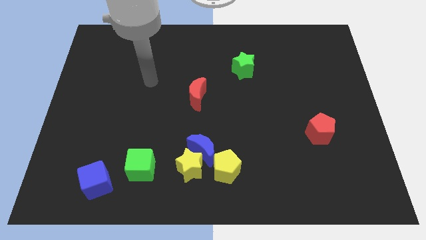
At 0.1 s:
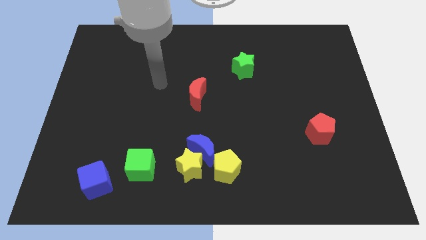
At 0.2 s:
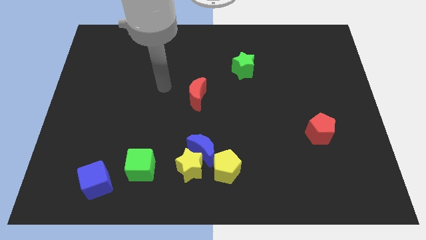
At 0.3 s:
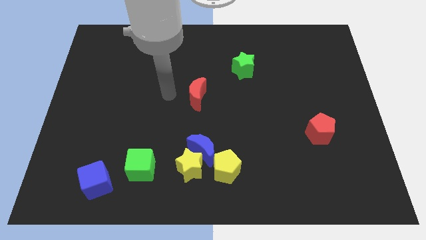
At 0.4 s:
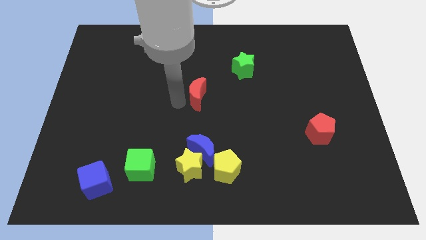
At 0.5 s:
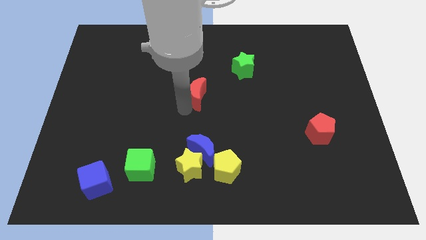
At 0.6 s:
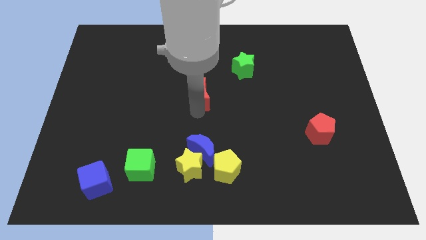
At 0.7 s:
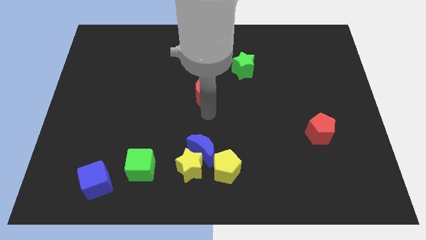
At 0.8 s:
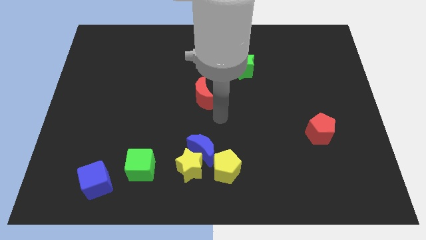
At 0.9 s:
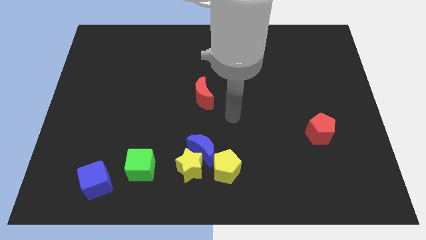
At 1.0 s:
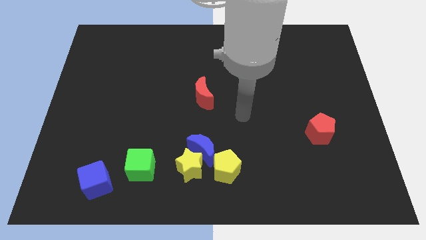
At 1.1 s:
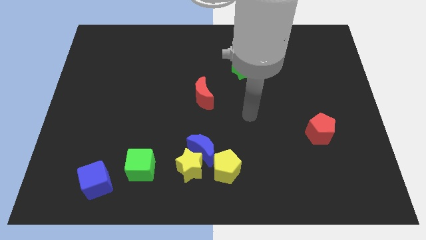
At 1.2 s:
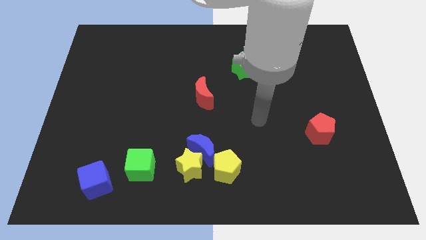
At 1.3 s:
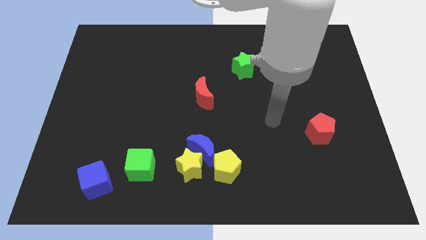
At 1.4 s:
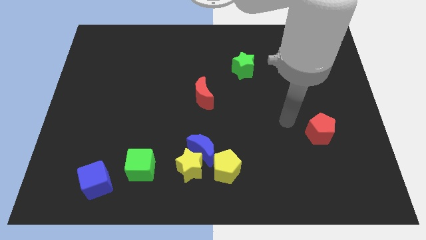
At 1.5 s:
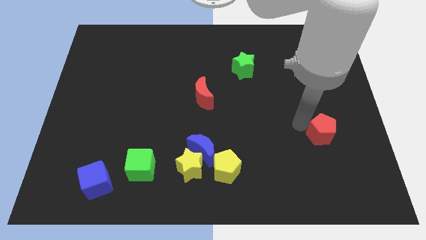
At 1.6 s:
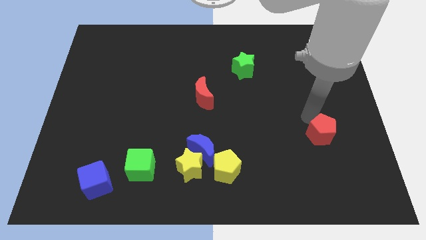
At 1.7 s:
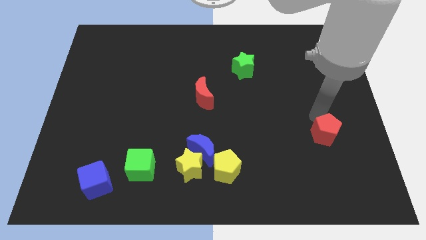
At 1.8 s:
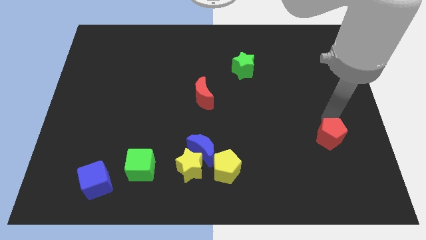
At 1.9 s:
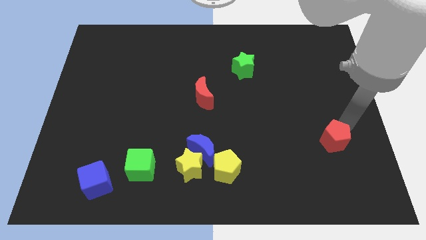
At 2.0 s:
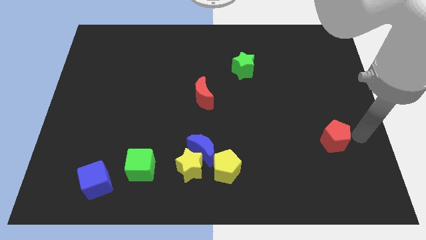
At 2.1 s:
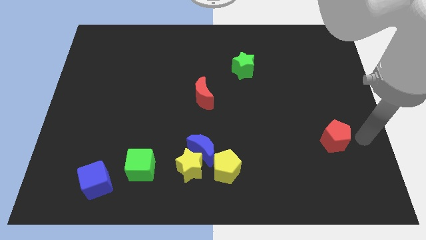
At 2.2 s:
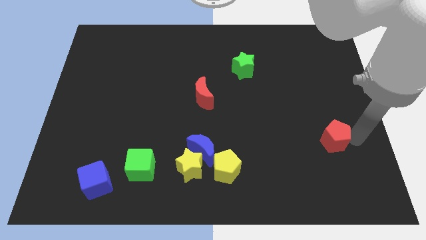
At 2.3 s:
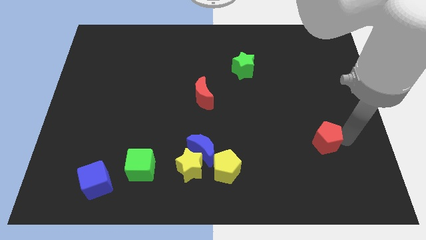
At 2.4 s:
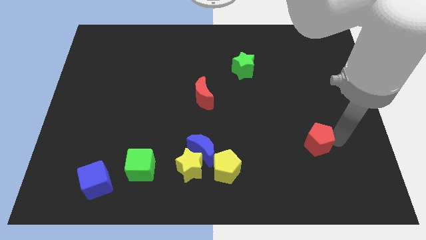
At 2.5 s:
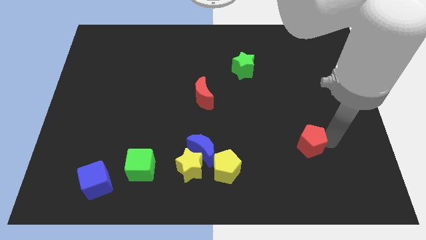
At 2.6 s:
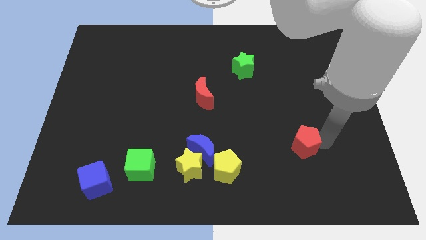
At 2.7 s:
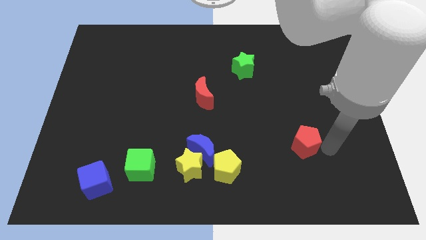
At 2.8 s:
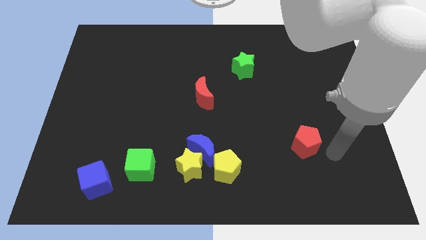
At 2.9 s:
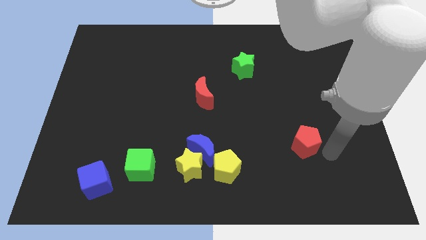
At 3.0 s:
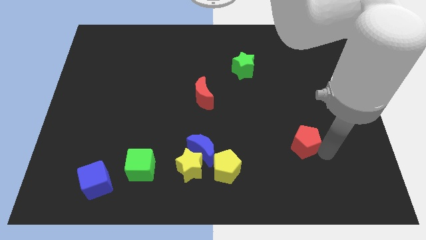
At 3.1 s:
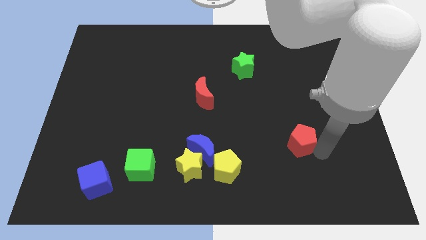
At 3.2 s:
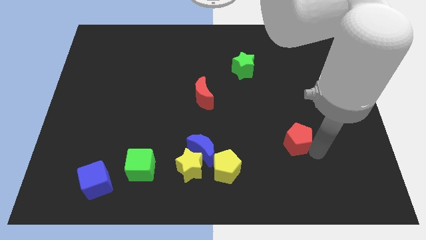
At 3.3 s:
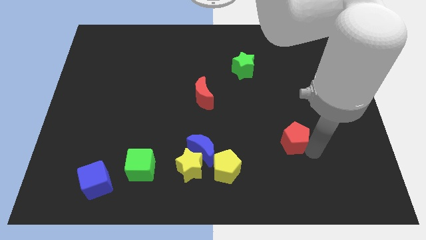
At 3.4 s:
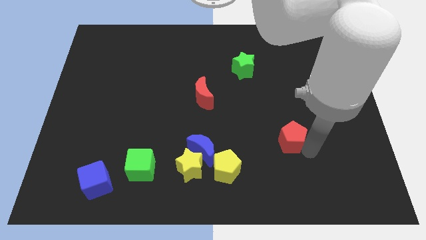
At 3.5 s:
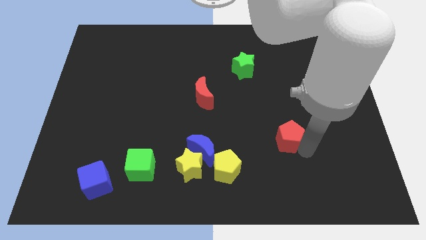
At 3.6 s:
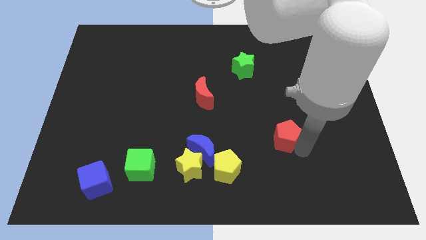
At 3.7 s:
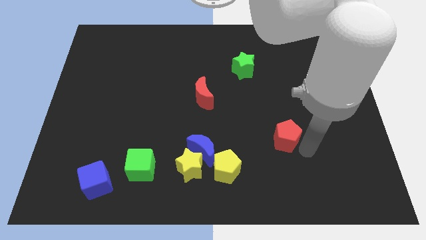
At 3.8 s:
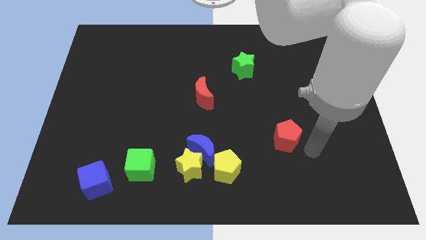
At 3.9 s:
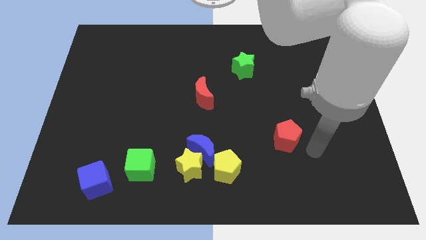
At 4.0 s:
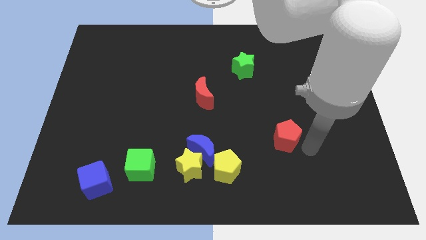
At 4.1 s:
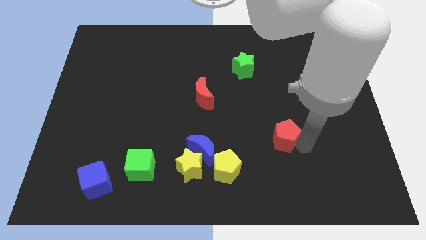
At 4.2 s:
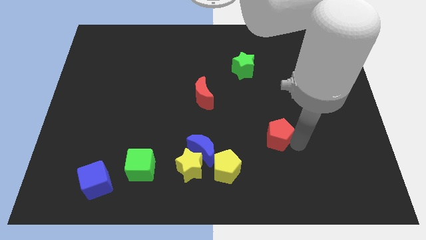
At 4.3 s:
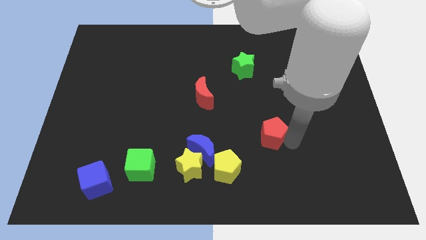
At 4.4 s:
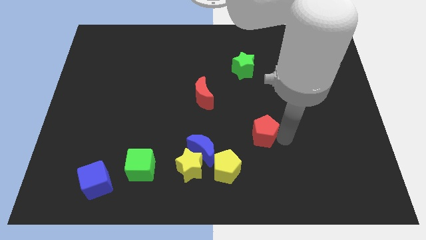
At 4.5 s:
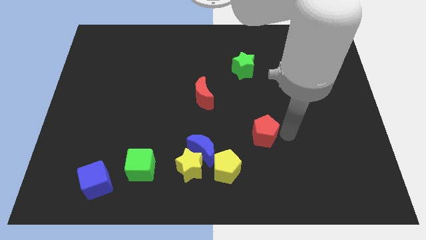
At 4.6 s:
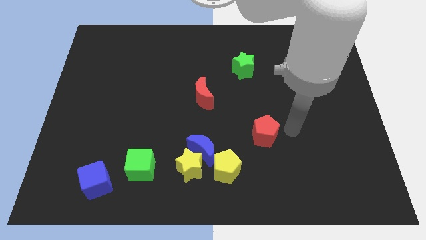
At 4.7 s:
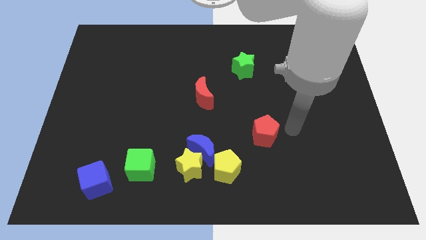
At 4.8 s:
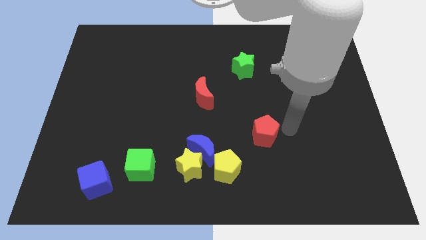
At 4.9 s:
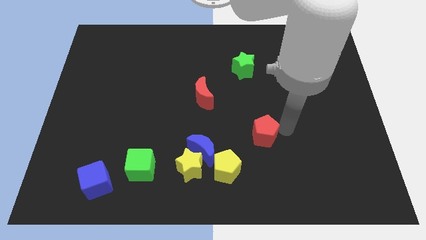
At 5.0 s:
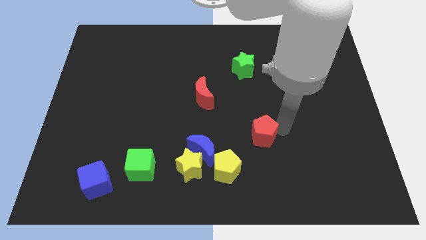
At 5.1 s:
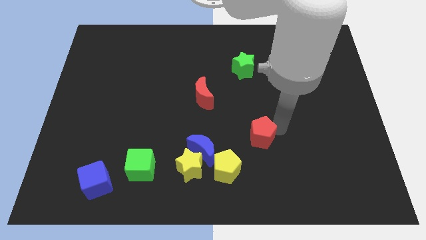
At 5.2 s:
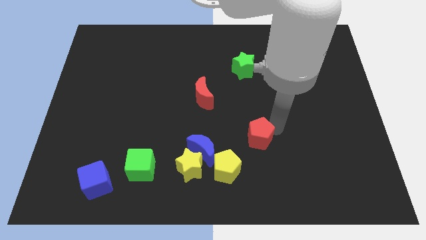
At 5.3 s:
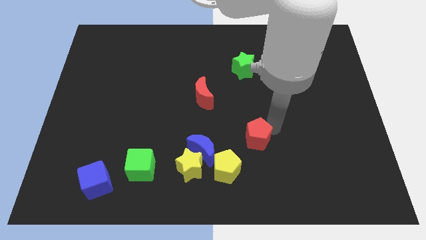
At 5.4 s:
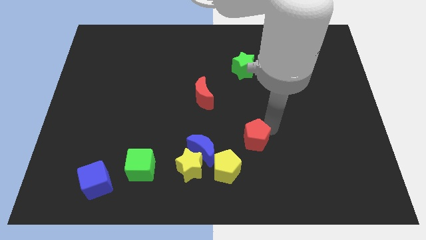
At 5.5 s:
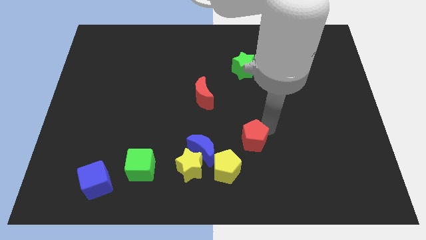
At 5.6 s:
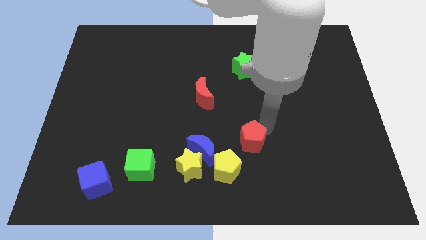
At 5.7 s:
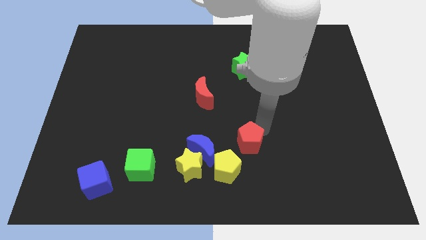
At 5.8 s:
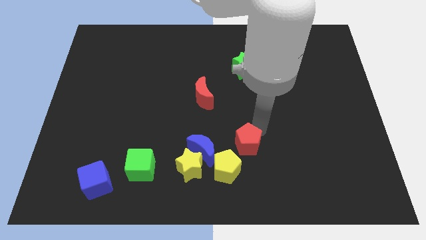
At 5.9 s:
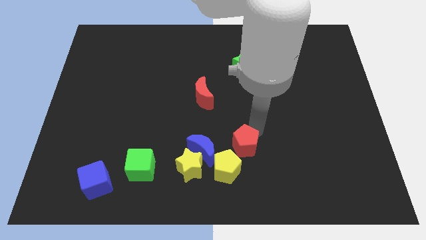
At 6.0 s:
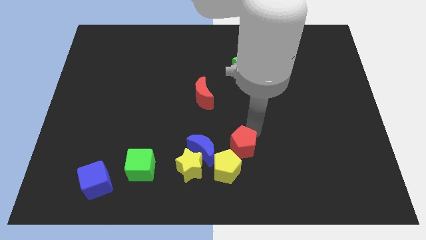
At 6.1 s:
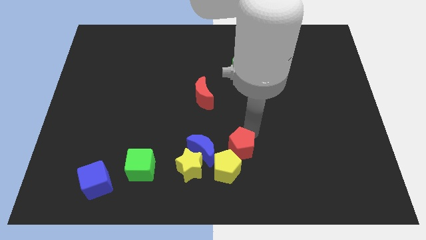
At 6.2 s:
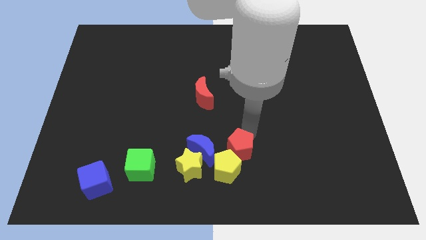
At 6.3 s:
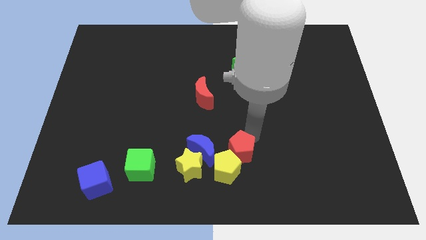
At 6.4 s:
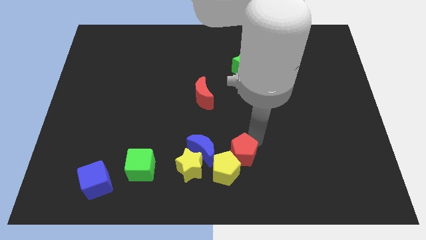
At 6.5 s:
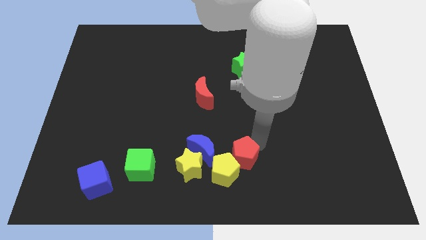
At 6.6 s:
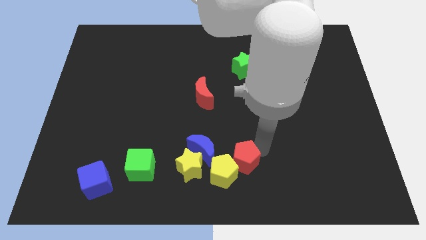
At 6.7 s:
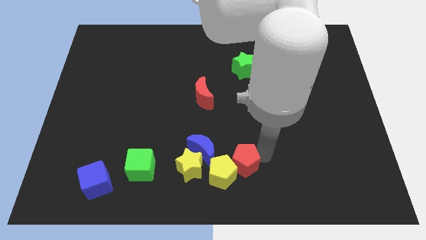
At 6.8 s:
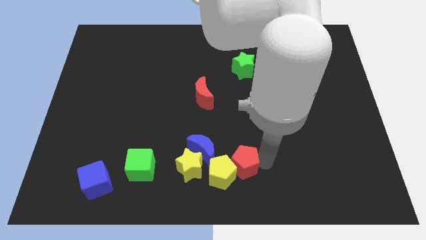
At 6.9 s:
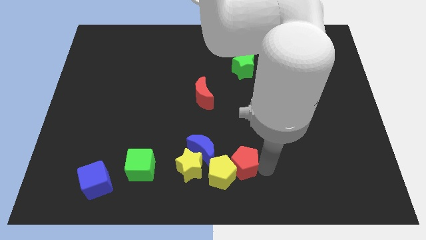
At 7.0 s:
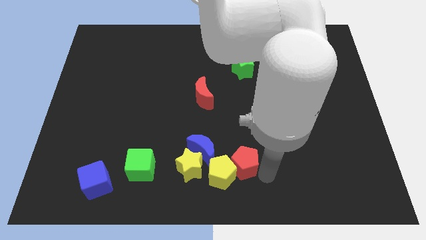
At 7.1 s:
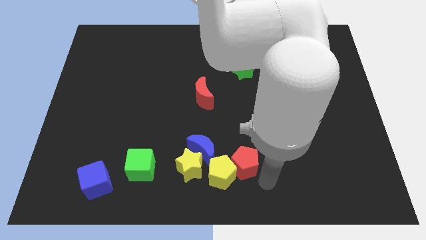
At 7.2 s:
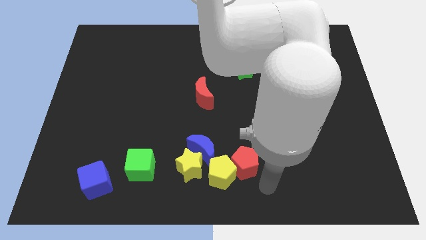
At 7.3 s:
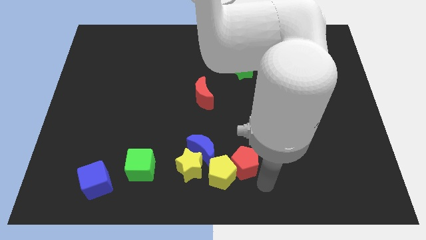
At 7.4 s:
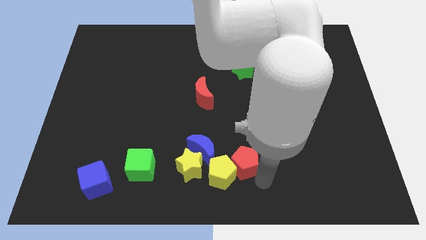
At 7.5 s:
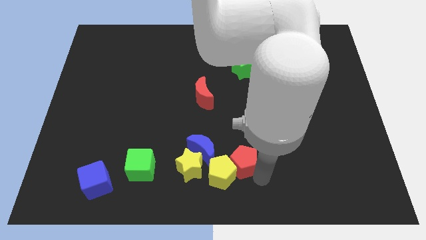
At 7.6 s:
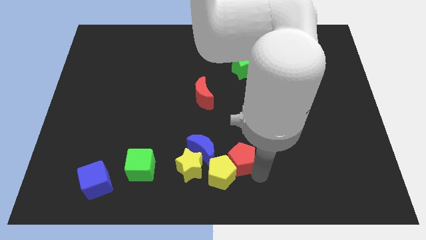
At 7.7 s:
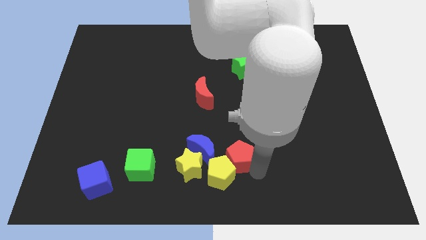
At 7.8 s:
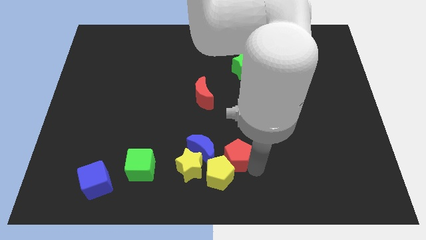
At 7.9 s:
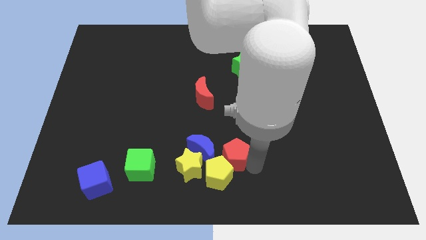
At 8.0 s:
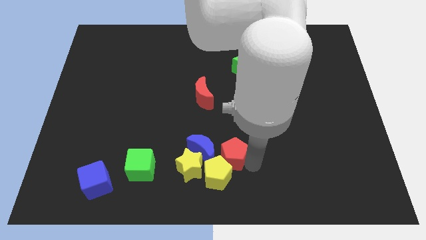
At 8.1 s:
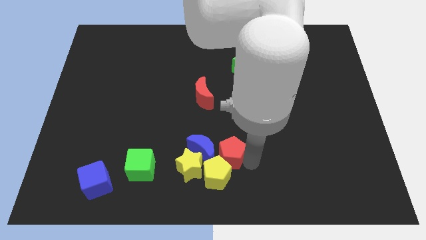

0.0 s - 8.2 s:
put the red pentagon next to the blue moon

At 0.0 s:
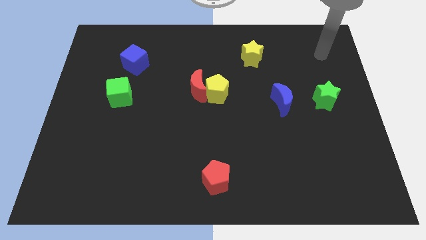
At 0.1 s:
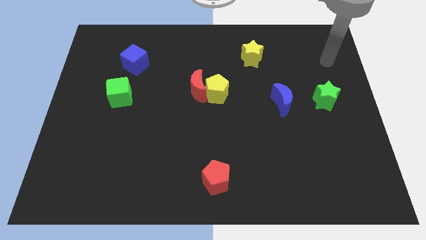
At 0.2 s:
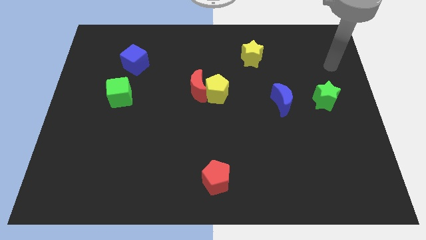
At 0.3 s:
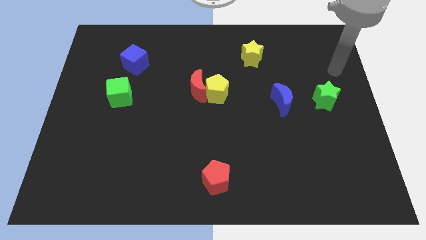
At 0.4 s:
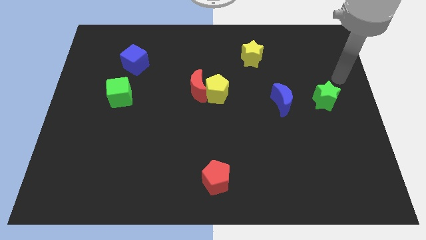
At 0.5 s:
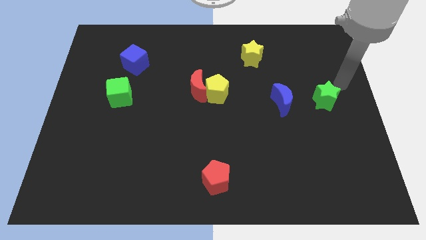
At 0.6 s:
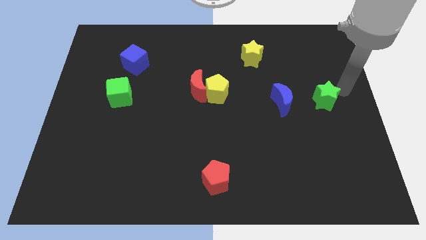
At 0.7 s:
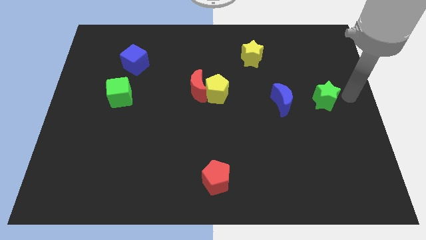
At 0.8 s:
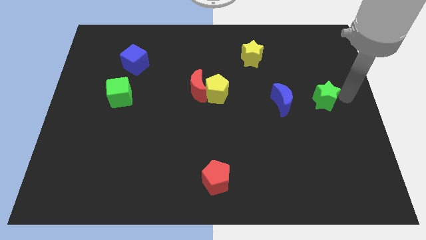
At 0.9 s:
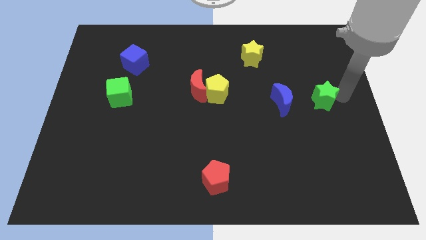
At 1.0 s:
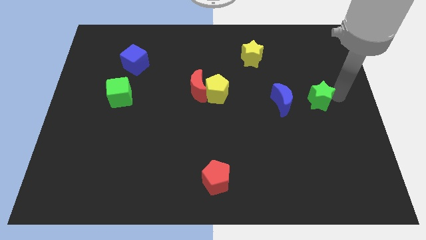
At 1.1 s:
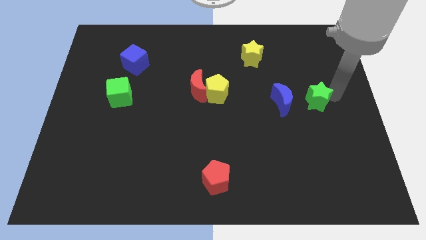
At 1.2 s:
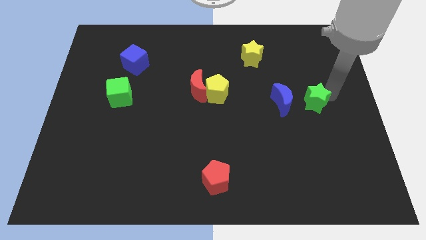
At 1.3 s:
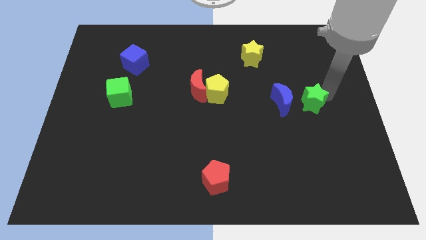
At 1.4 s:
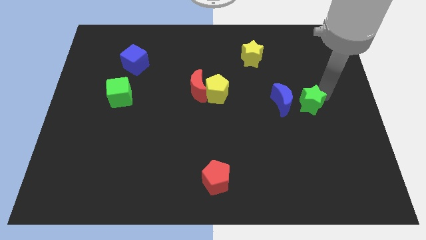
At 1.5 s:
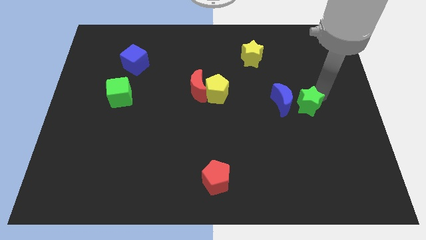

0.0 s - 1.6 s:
move the green star towards the blue moon
